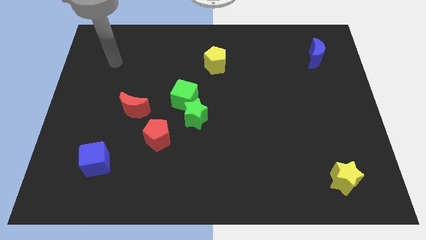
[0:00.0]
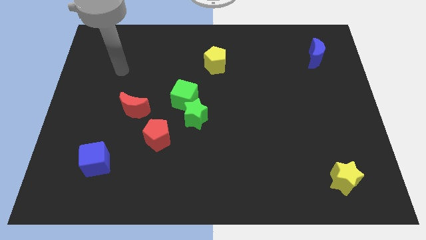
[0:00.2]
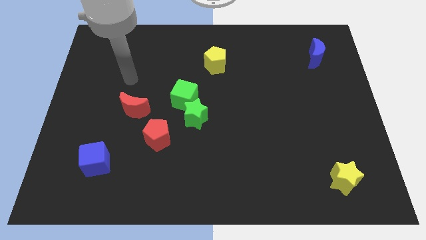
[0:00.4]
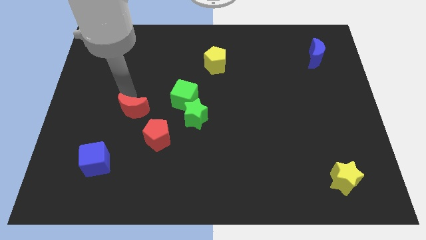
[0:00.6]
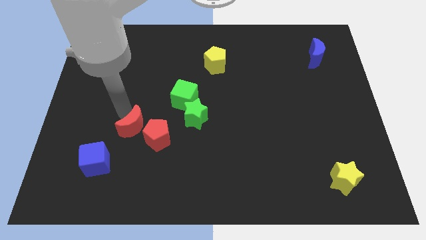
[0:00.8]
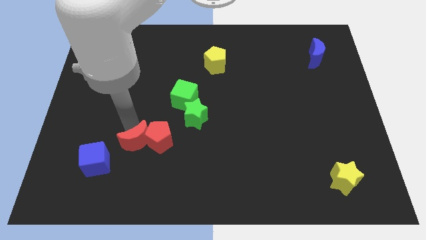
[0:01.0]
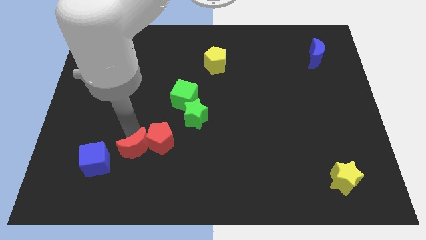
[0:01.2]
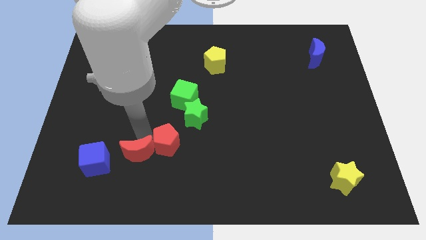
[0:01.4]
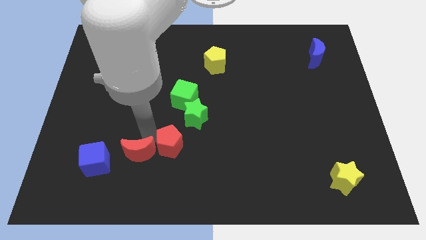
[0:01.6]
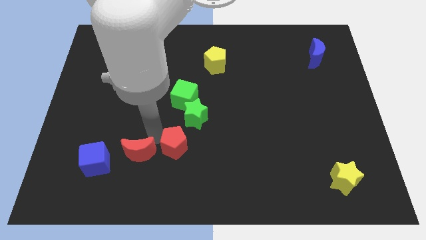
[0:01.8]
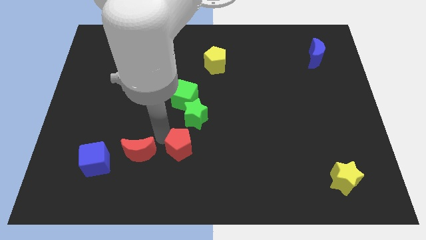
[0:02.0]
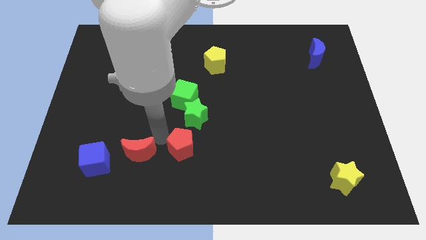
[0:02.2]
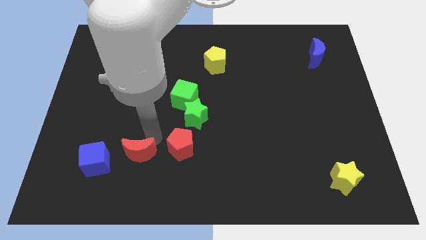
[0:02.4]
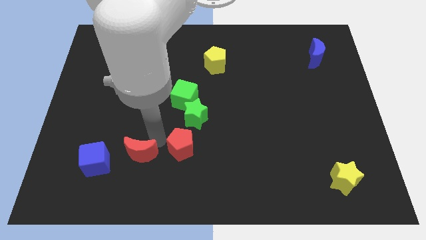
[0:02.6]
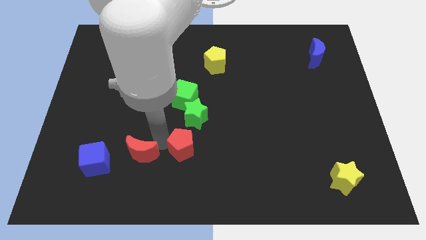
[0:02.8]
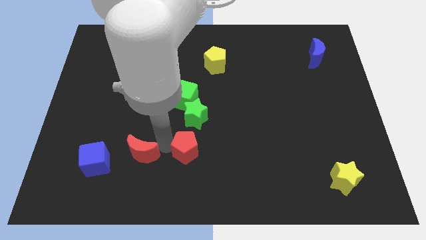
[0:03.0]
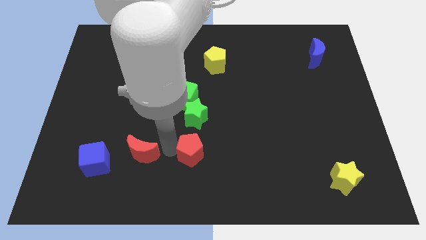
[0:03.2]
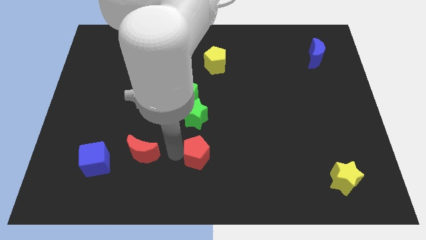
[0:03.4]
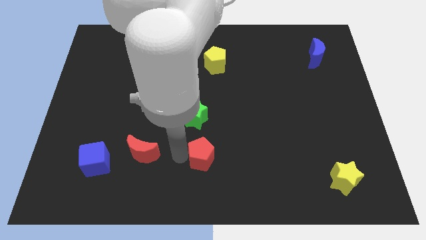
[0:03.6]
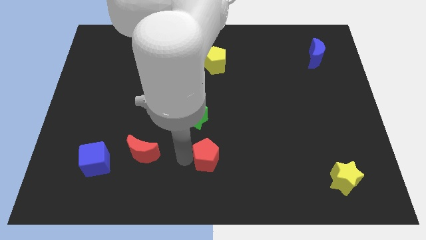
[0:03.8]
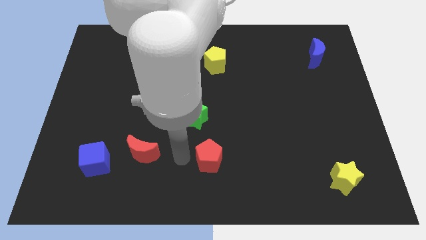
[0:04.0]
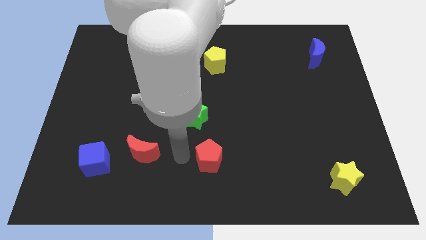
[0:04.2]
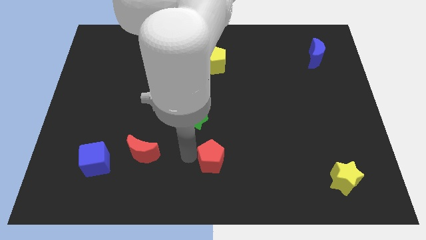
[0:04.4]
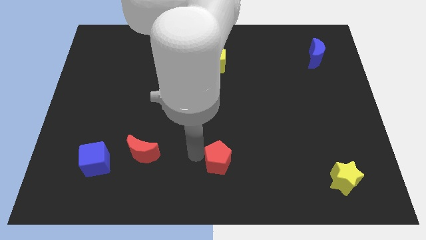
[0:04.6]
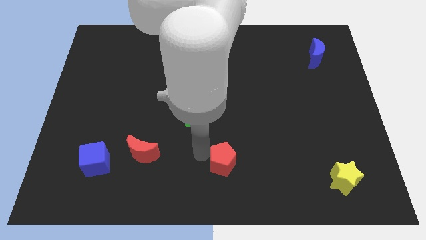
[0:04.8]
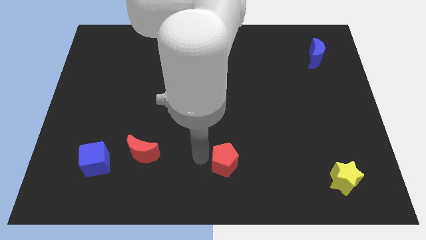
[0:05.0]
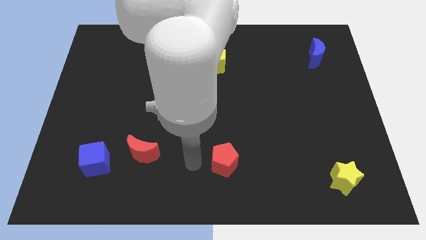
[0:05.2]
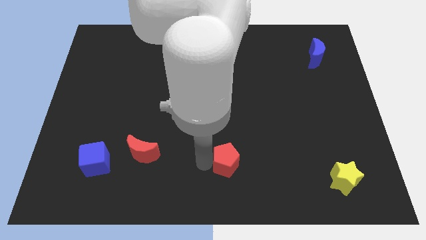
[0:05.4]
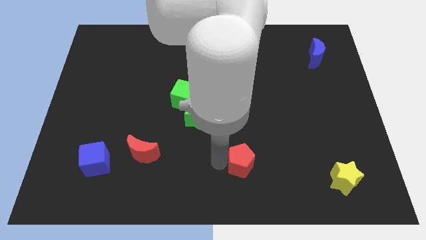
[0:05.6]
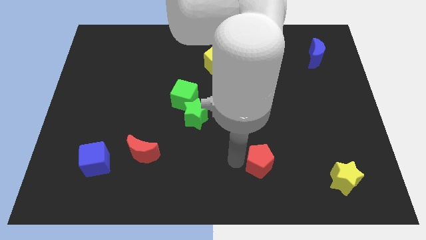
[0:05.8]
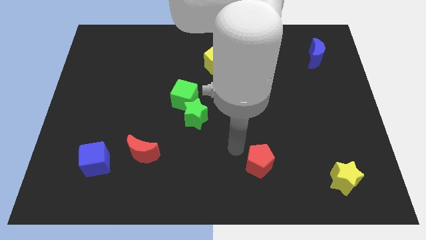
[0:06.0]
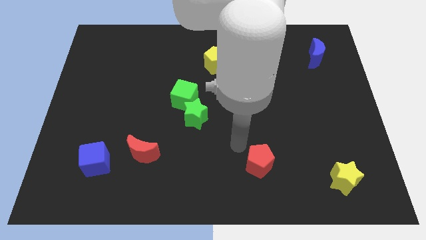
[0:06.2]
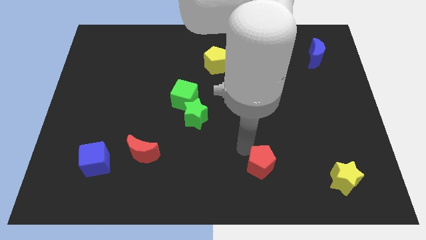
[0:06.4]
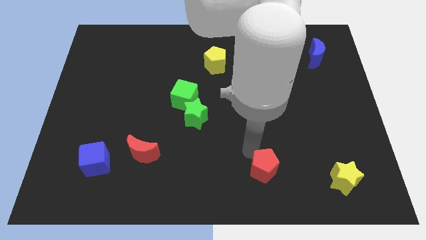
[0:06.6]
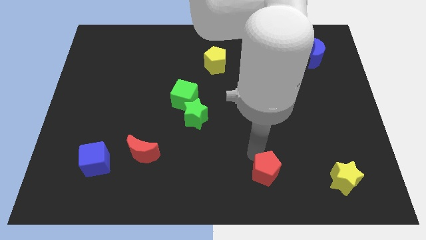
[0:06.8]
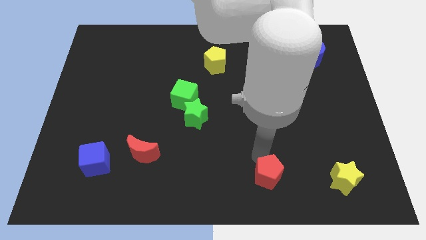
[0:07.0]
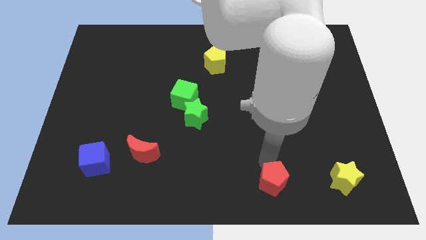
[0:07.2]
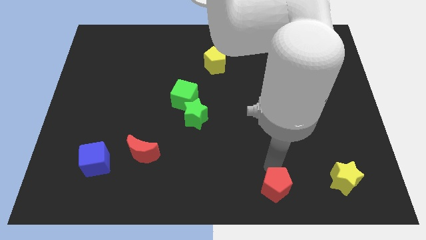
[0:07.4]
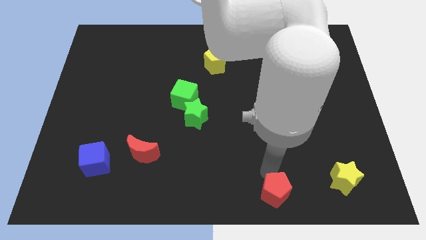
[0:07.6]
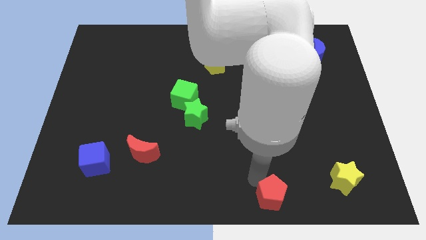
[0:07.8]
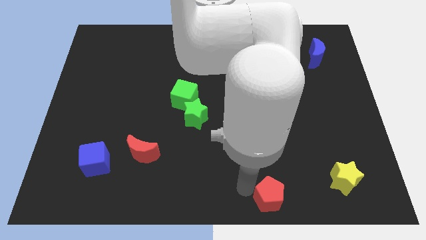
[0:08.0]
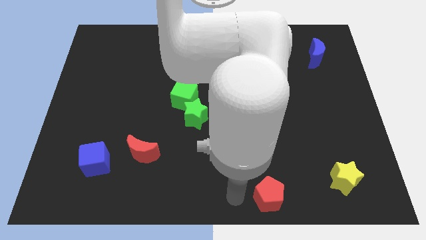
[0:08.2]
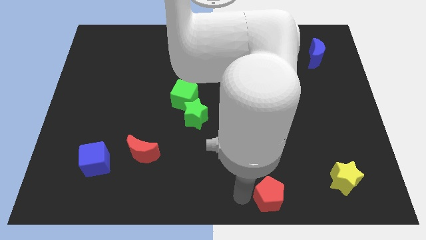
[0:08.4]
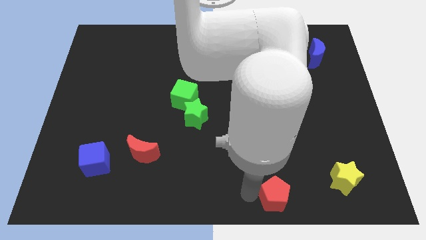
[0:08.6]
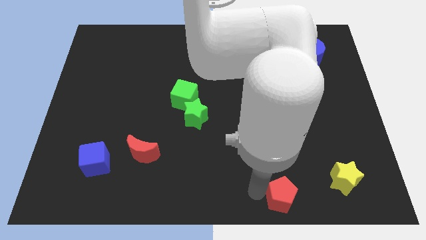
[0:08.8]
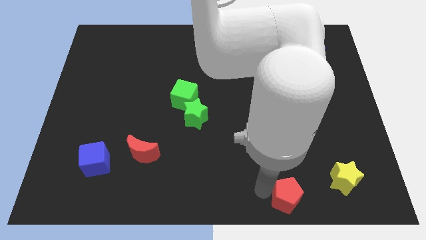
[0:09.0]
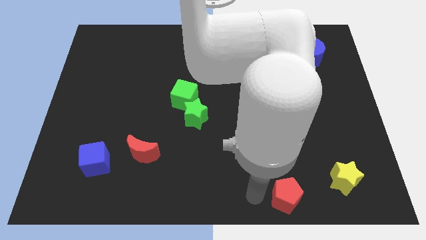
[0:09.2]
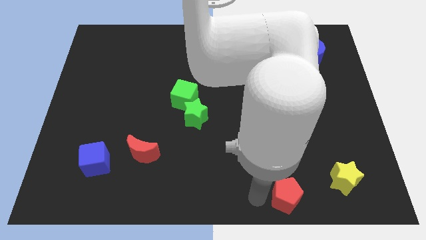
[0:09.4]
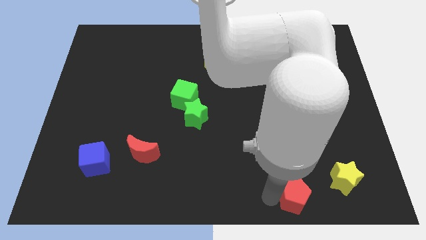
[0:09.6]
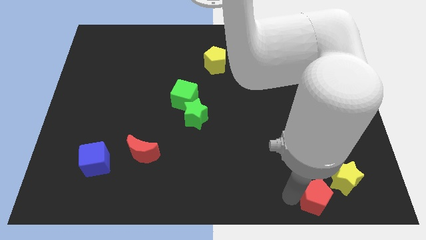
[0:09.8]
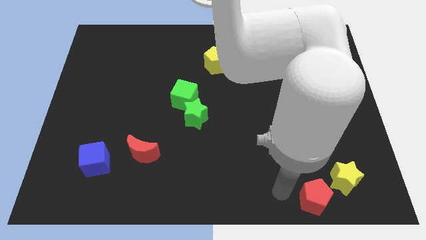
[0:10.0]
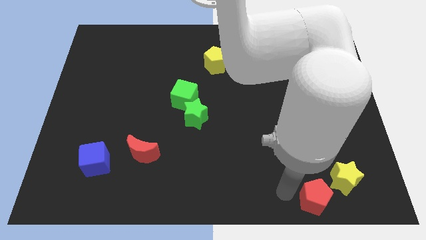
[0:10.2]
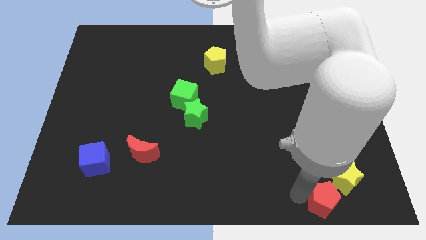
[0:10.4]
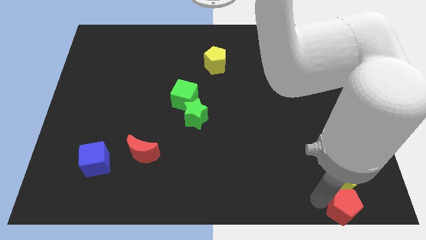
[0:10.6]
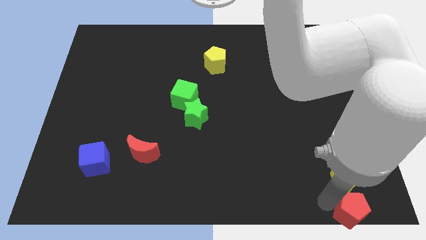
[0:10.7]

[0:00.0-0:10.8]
put the red pentagon to the bottom right of the board
